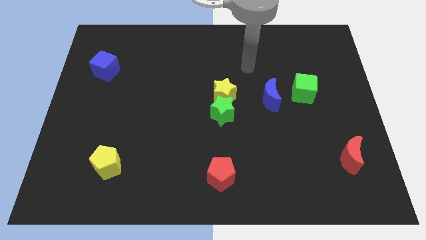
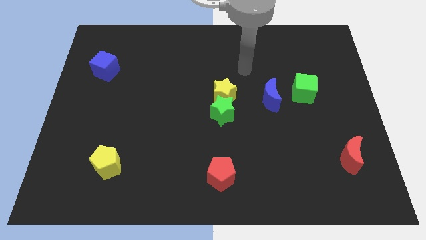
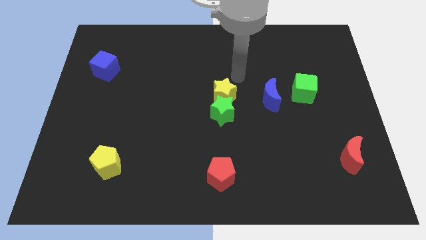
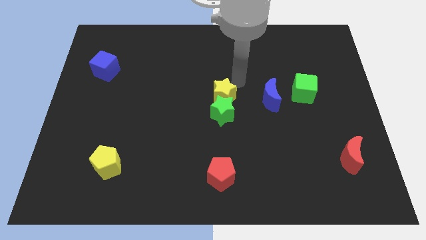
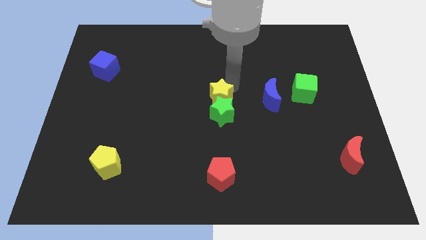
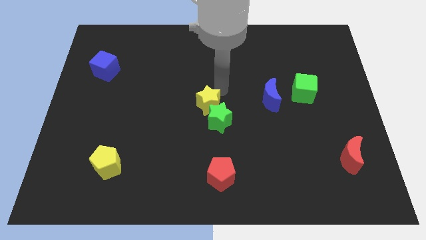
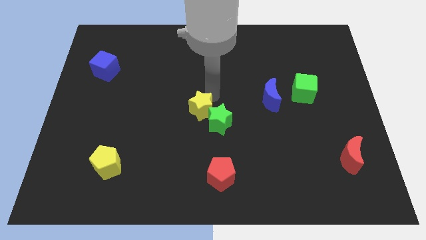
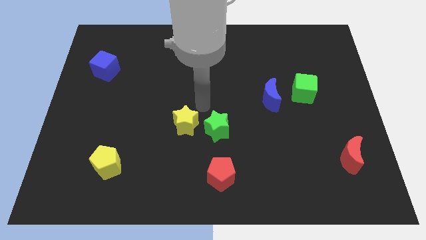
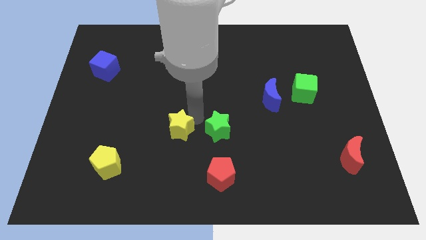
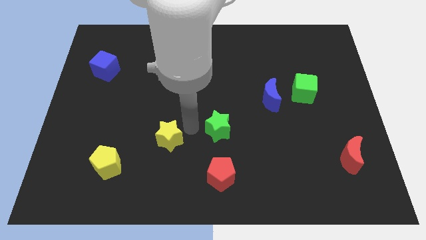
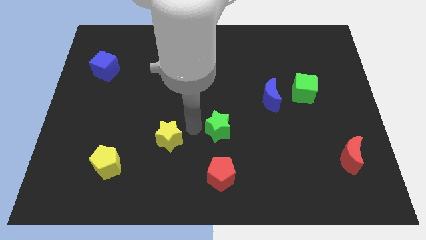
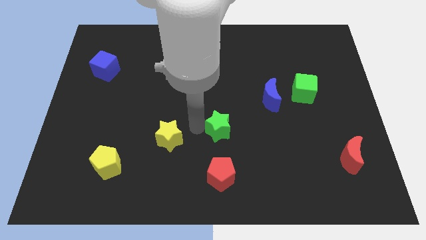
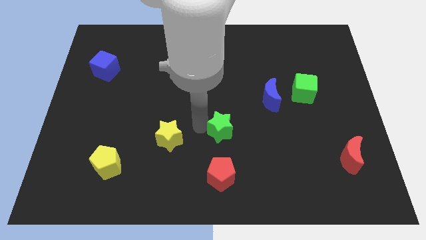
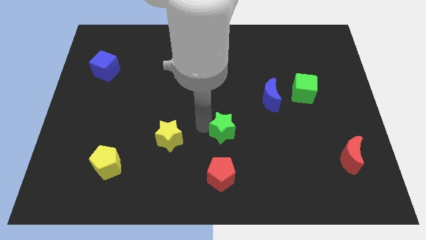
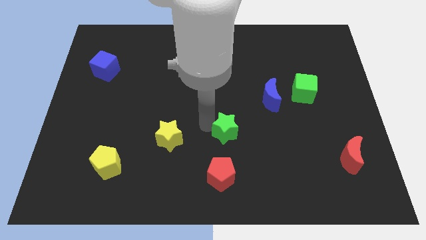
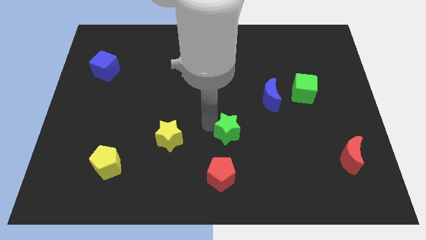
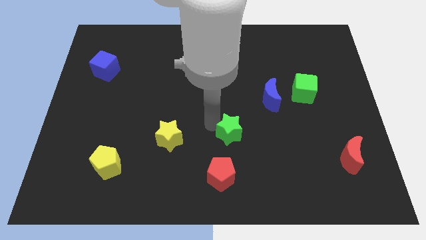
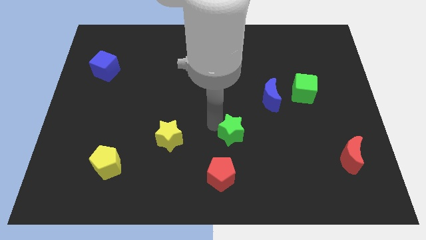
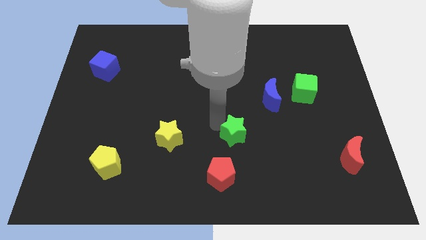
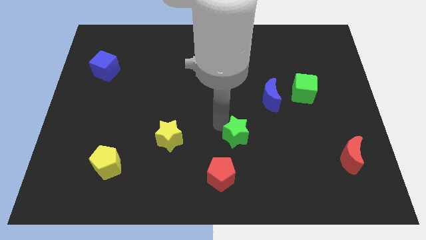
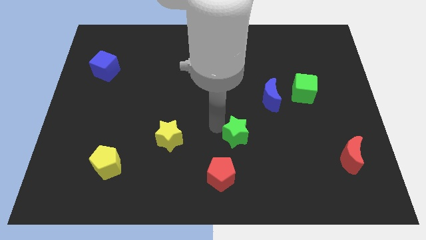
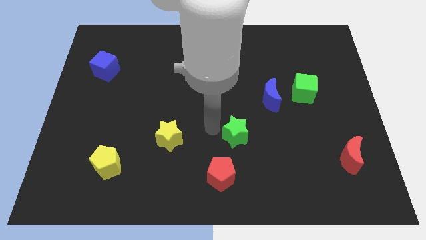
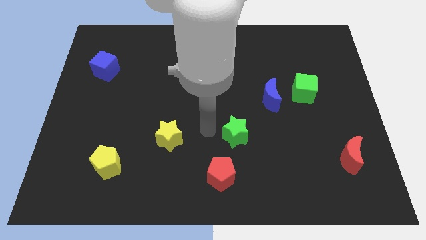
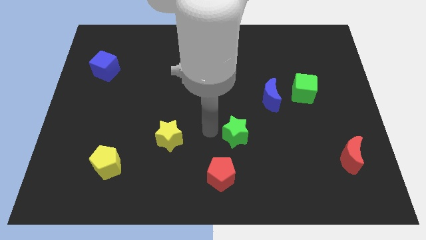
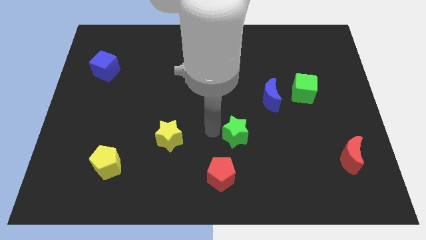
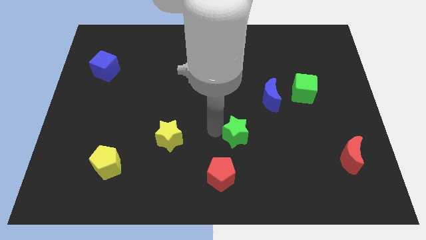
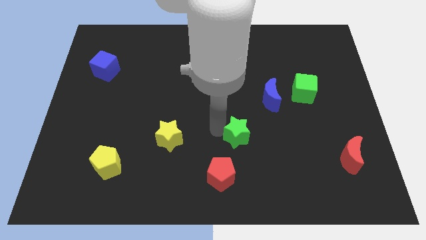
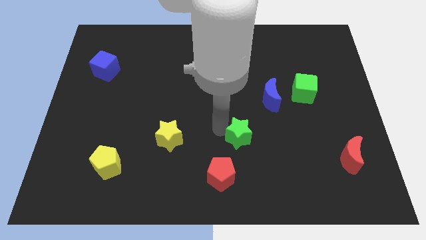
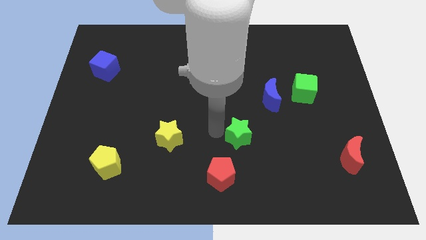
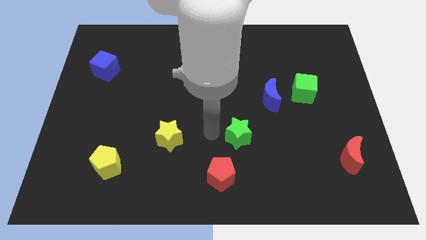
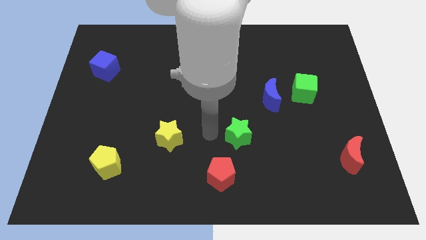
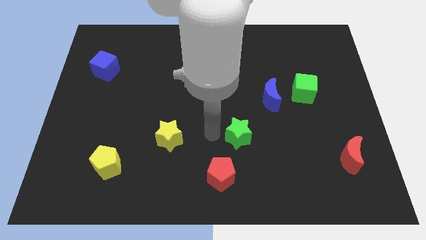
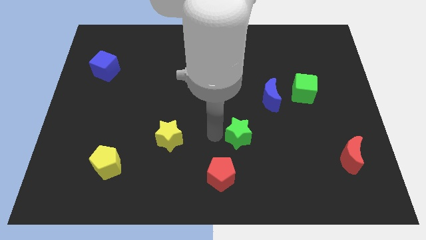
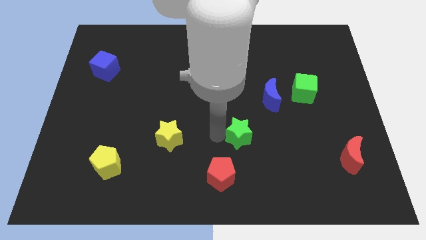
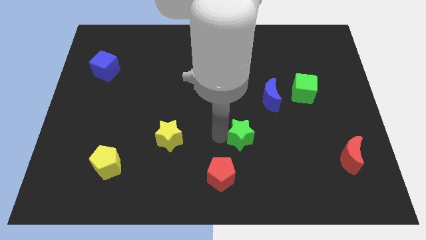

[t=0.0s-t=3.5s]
slightly move the green star down and then right

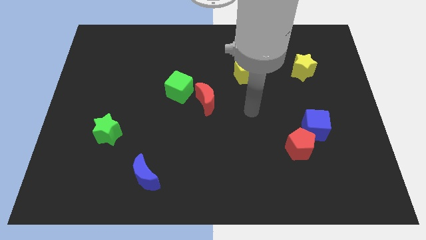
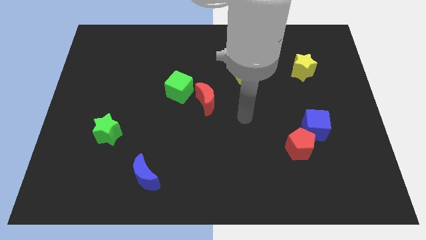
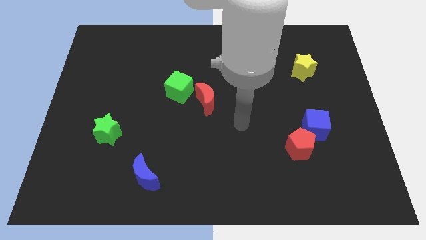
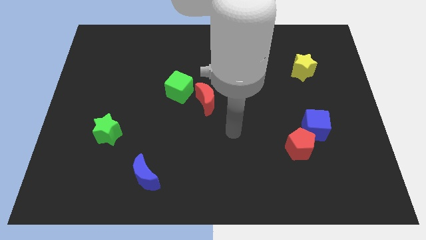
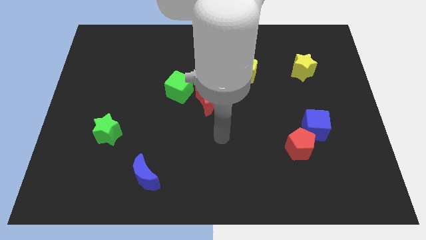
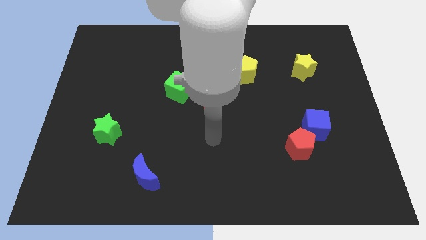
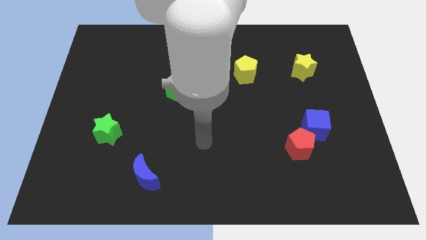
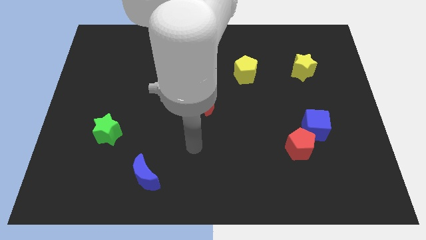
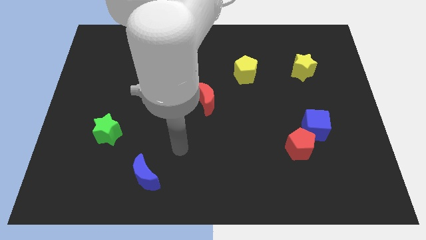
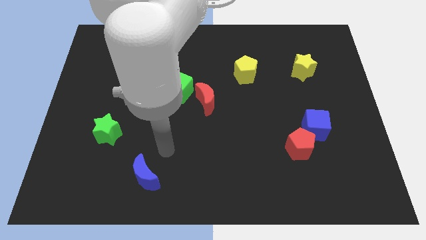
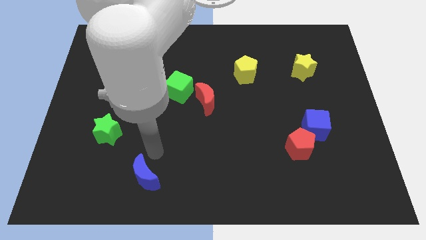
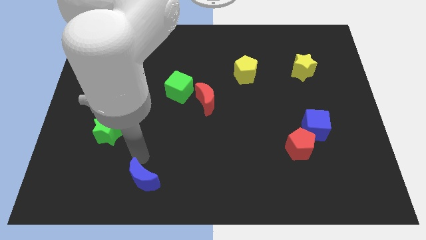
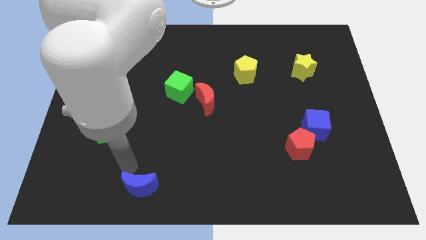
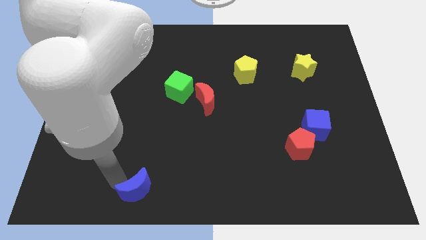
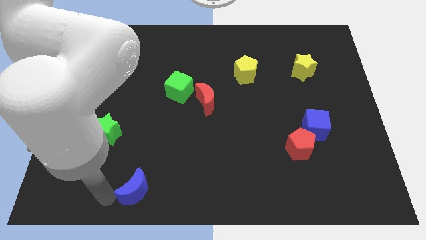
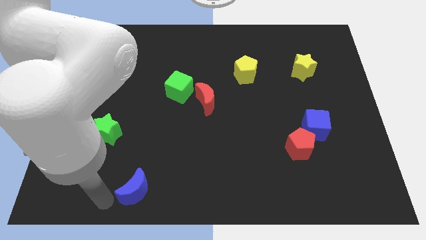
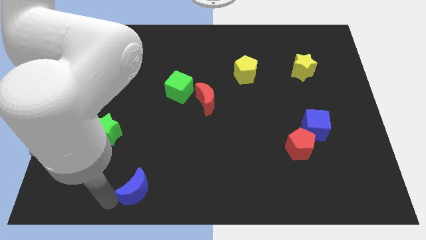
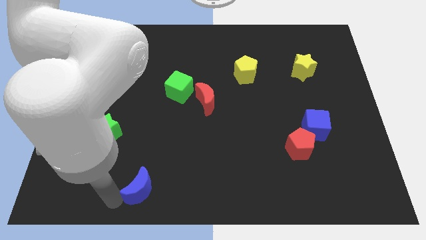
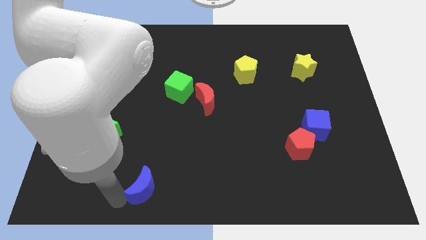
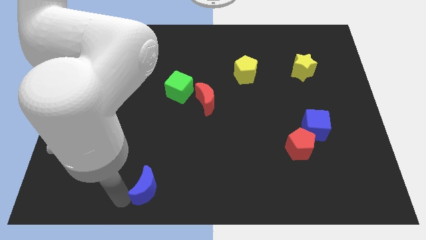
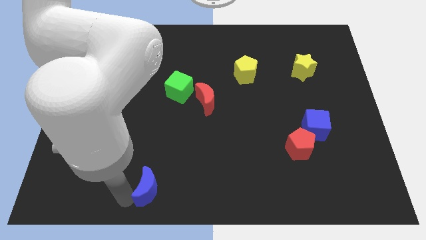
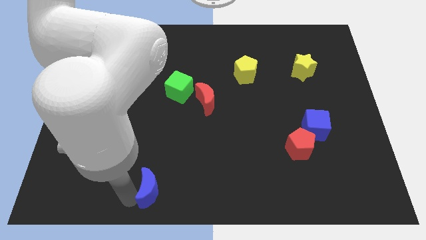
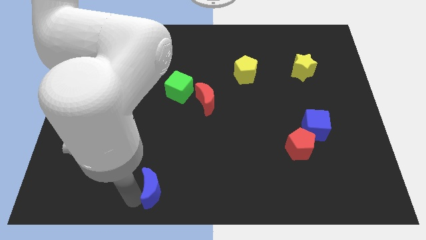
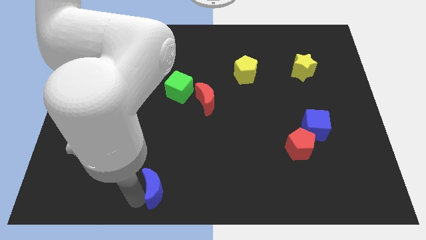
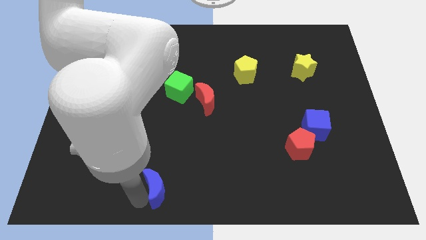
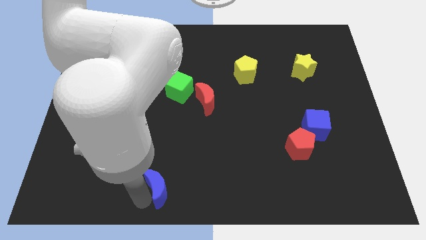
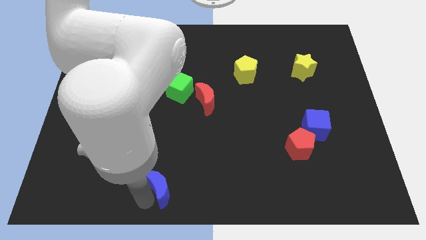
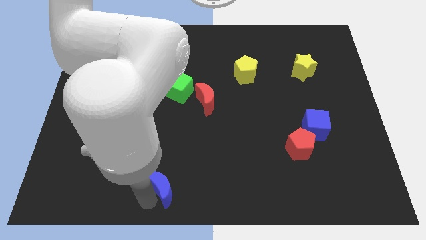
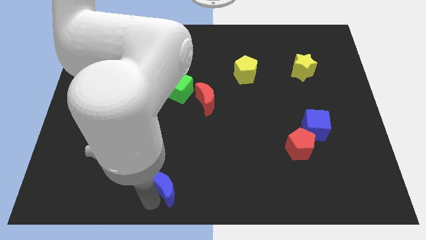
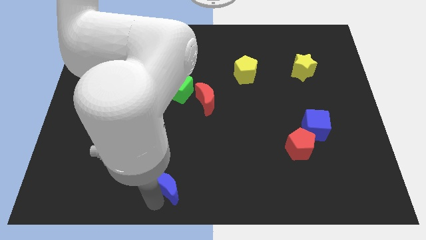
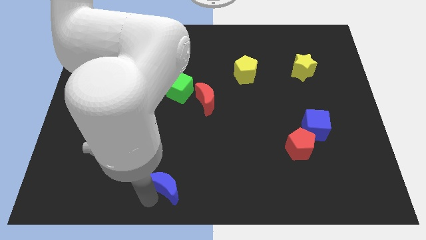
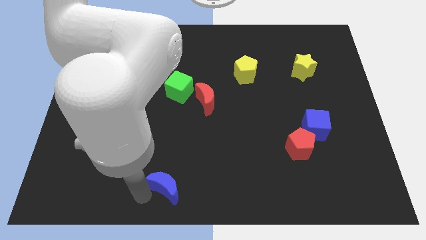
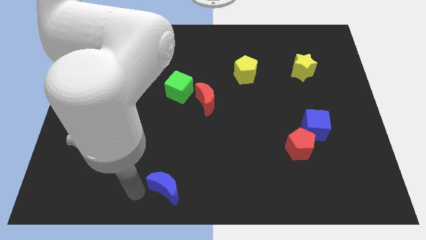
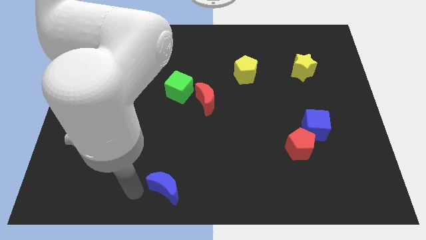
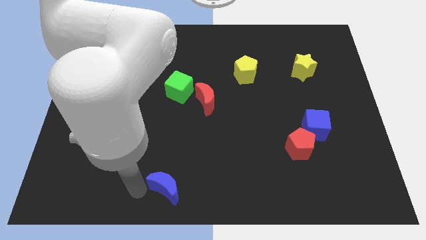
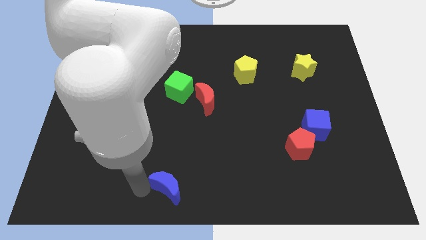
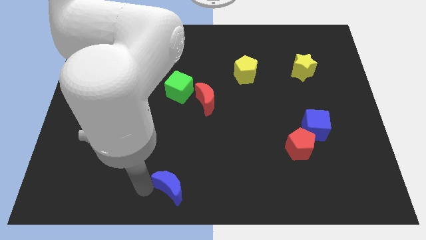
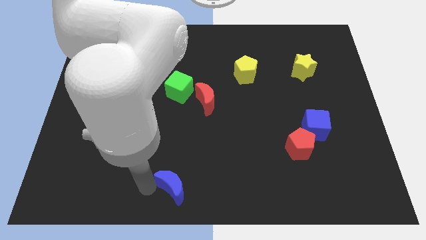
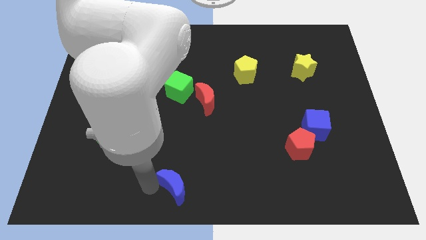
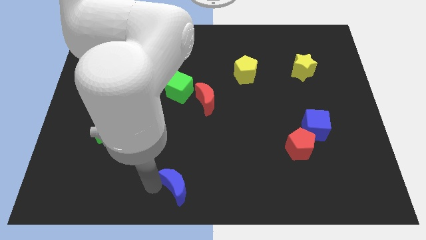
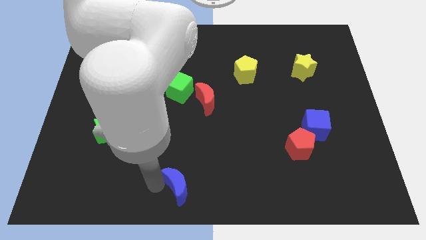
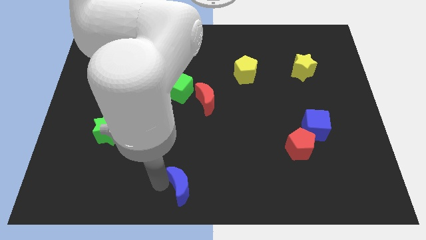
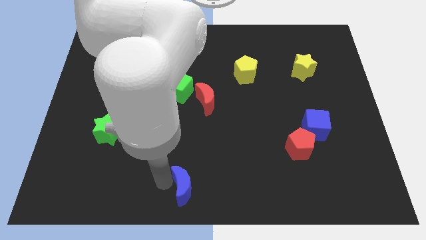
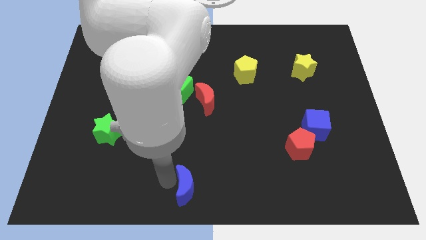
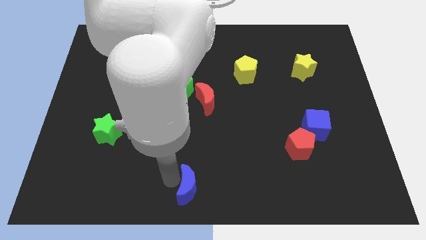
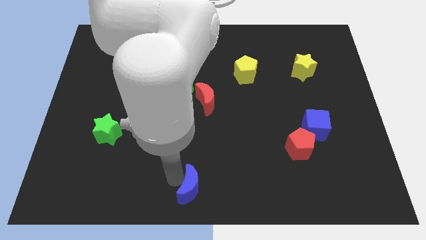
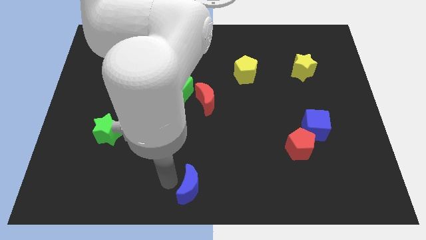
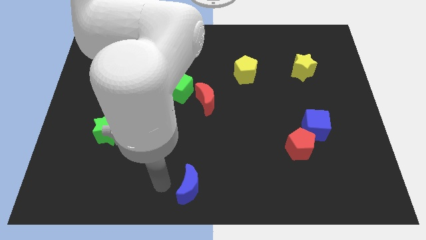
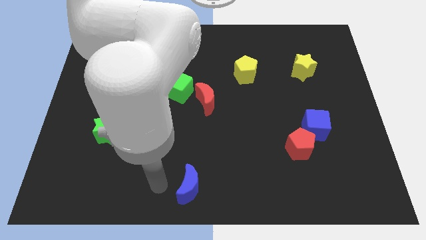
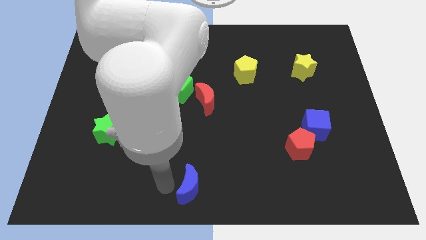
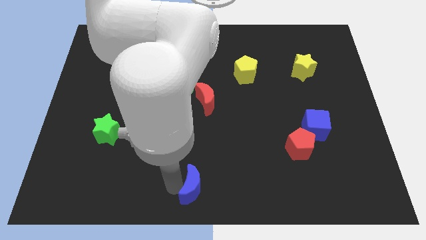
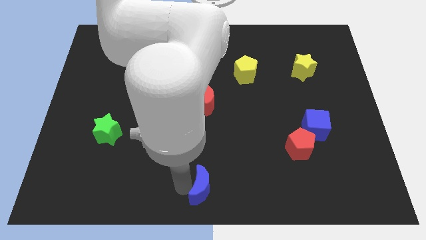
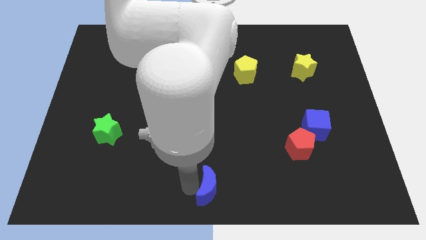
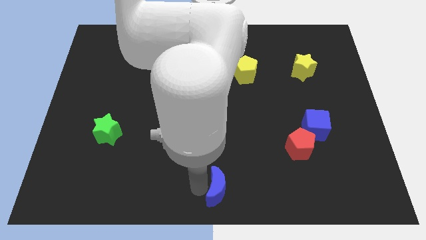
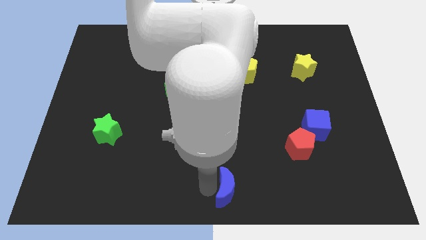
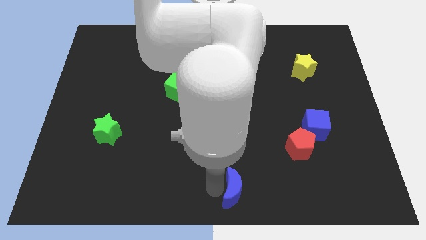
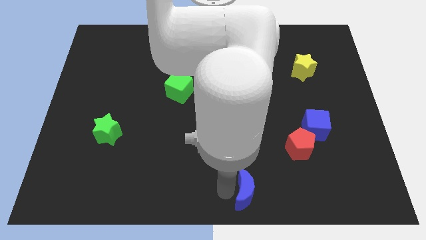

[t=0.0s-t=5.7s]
push the blue moon right
